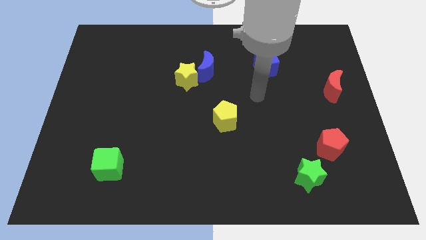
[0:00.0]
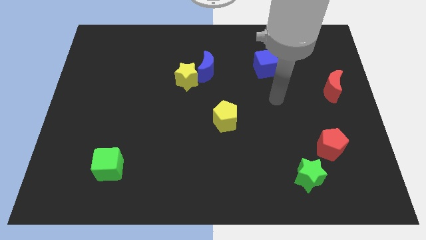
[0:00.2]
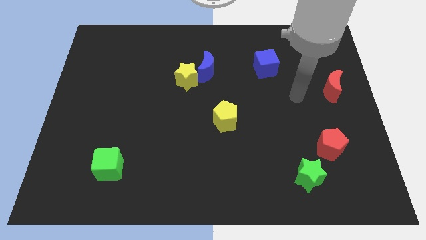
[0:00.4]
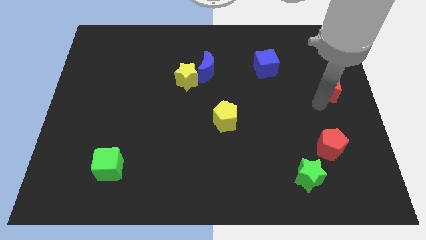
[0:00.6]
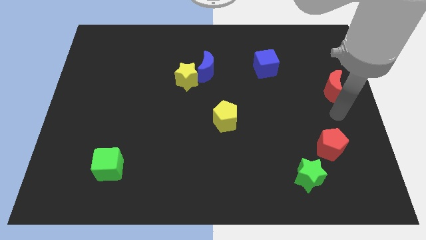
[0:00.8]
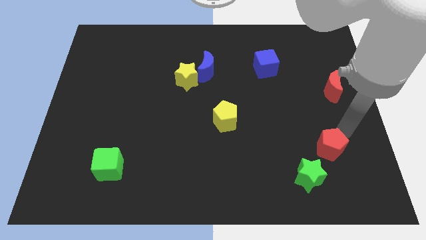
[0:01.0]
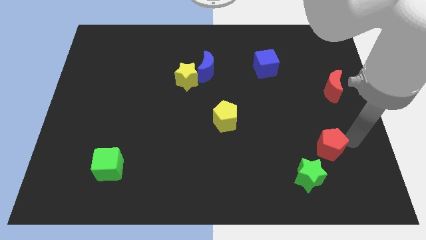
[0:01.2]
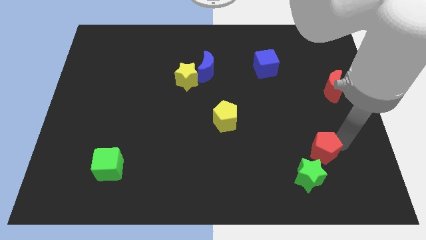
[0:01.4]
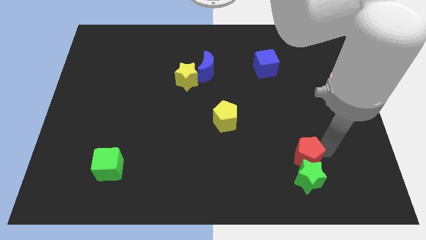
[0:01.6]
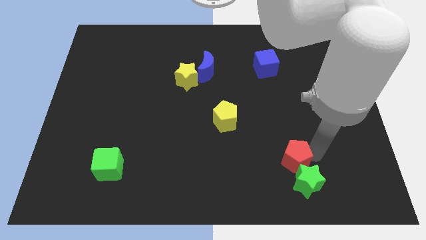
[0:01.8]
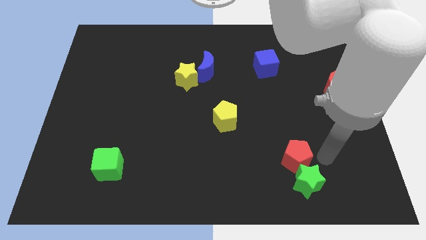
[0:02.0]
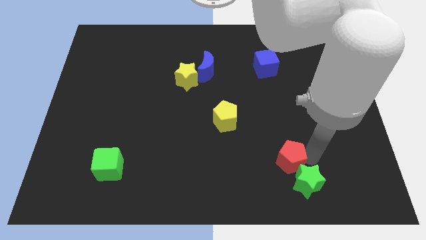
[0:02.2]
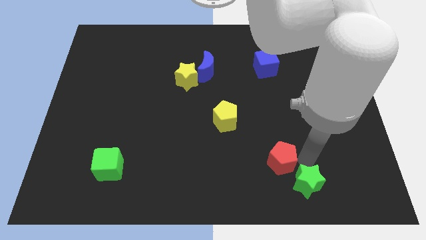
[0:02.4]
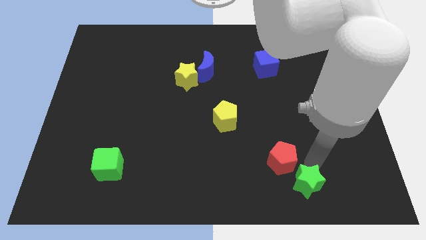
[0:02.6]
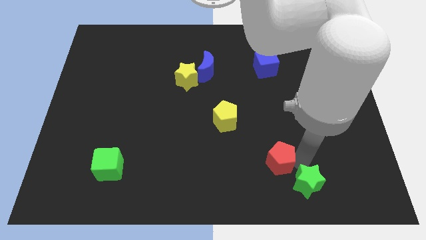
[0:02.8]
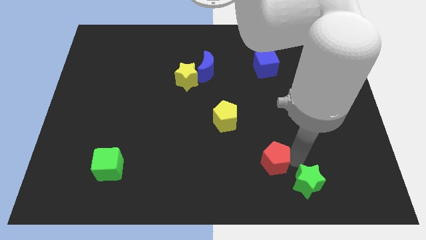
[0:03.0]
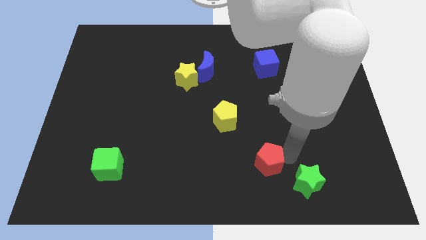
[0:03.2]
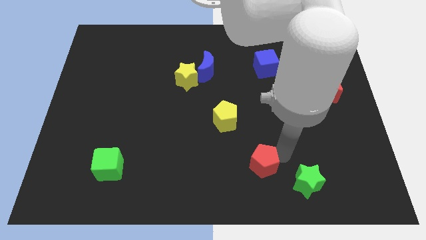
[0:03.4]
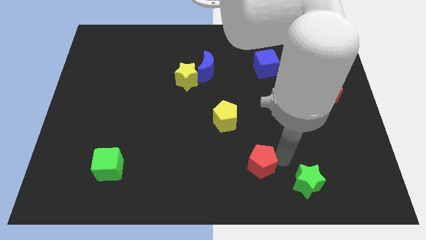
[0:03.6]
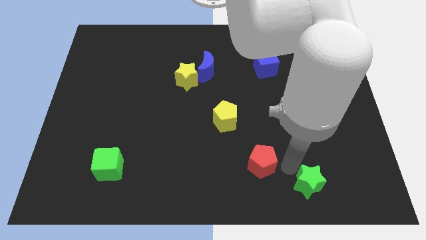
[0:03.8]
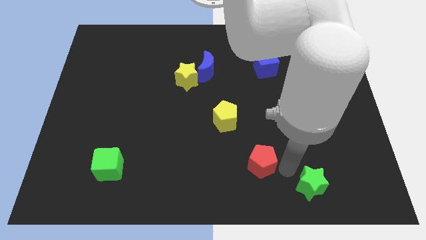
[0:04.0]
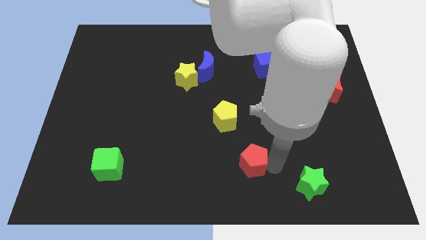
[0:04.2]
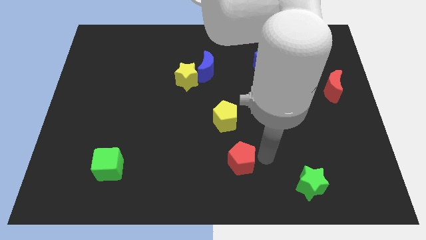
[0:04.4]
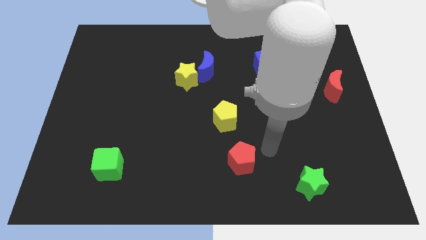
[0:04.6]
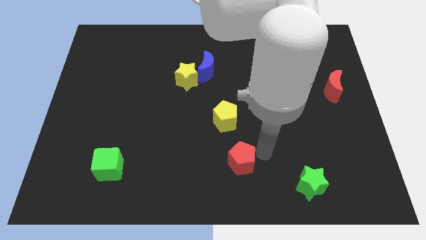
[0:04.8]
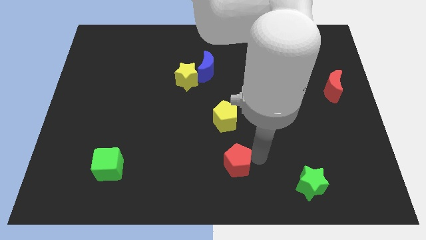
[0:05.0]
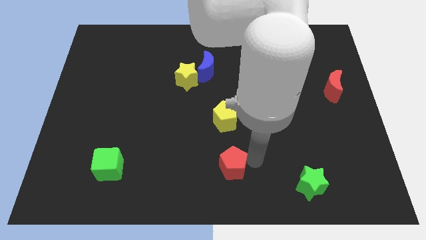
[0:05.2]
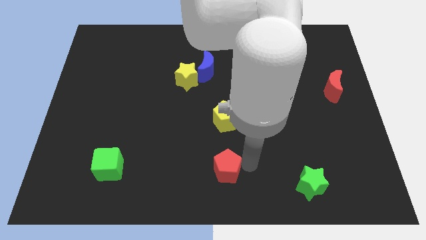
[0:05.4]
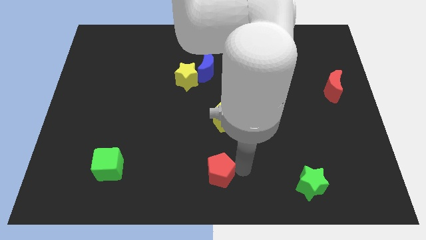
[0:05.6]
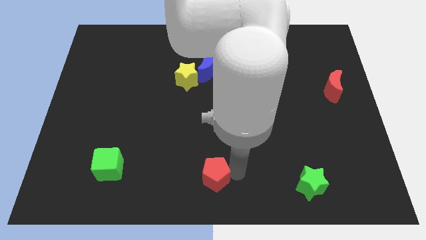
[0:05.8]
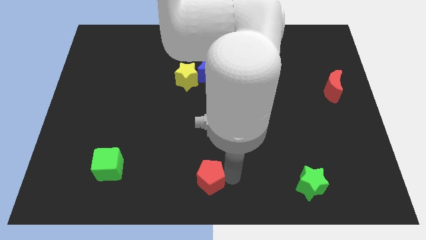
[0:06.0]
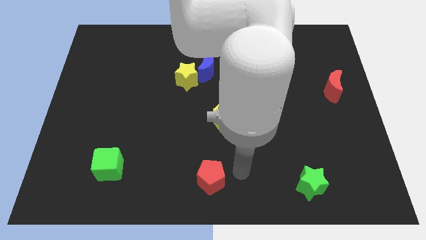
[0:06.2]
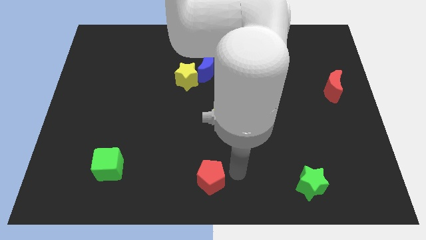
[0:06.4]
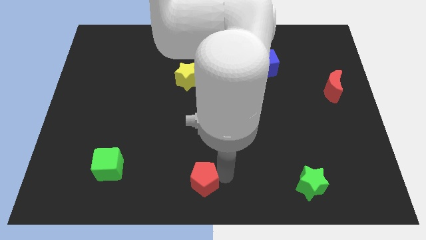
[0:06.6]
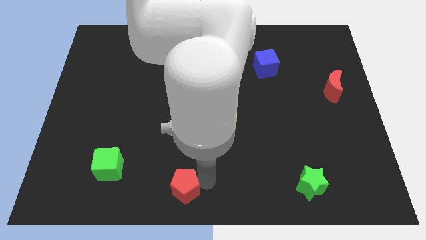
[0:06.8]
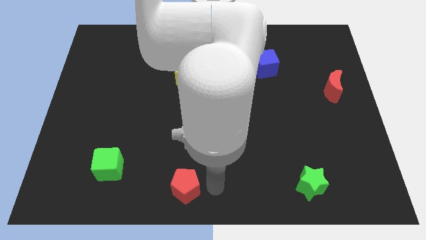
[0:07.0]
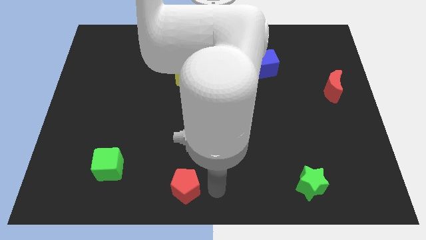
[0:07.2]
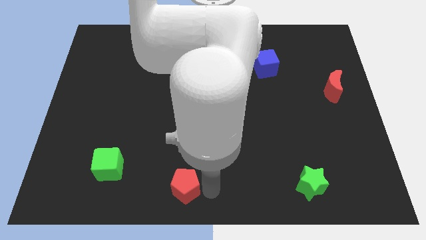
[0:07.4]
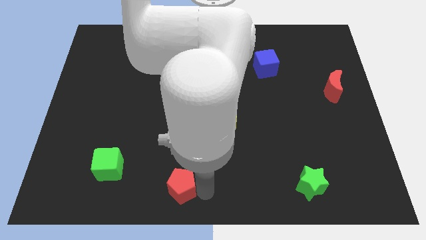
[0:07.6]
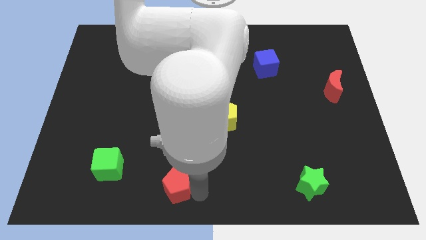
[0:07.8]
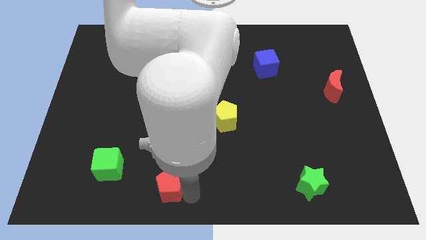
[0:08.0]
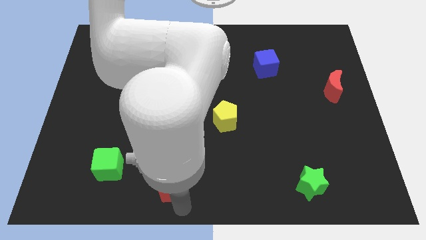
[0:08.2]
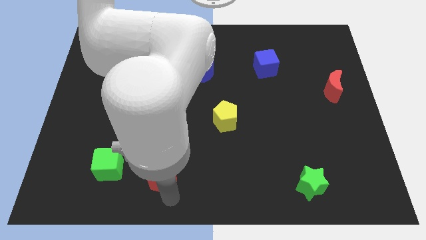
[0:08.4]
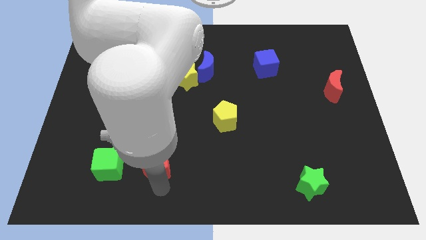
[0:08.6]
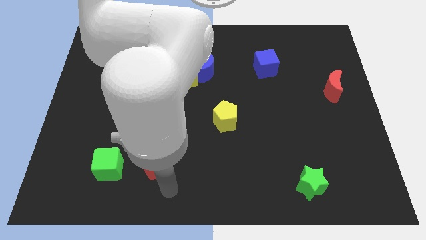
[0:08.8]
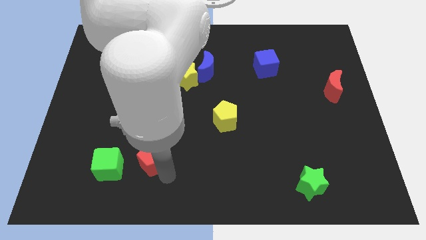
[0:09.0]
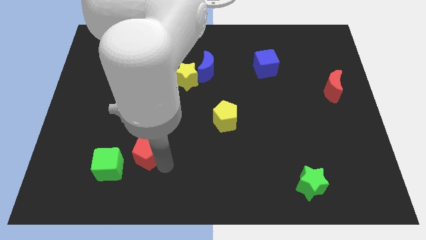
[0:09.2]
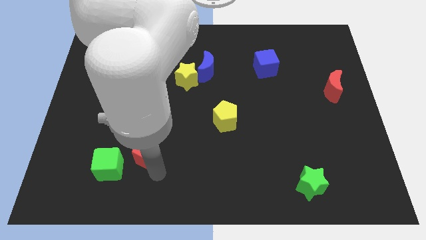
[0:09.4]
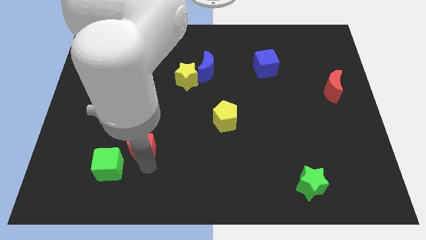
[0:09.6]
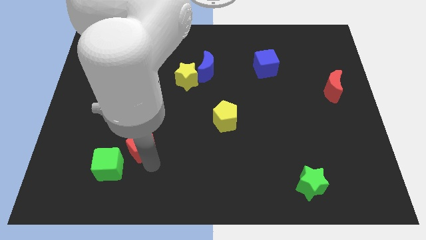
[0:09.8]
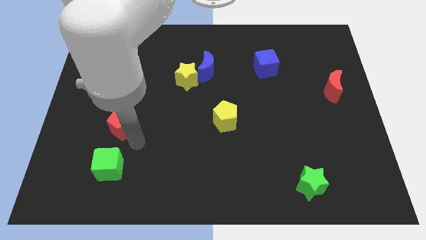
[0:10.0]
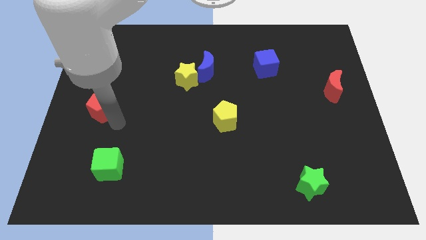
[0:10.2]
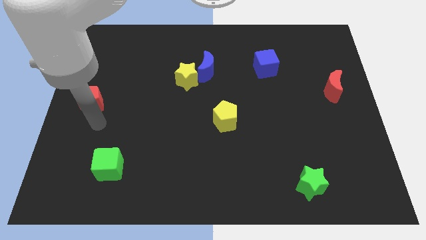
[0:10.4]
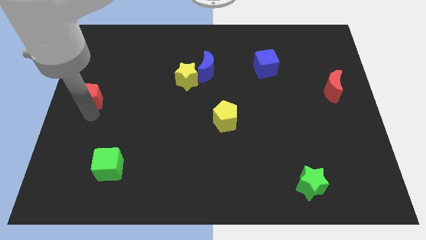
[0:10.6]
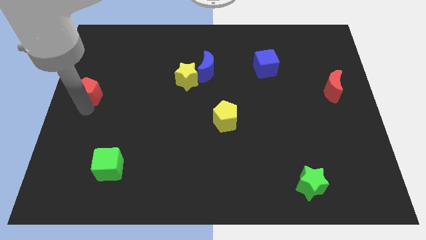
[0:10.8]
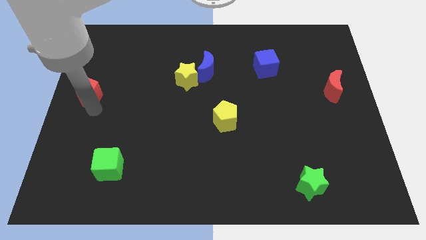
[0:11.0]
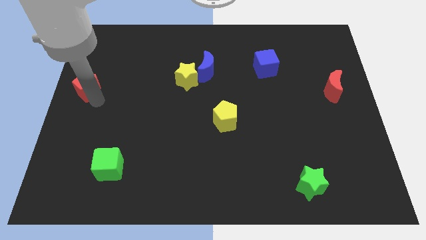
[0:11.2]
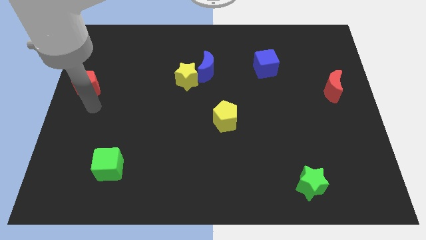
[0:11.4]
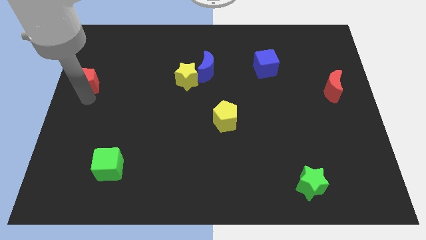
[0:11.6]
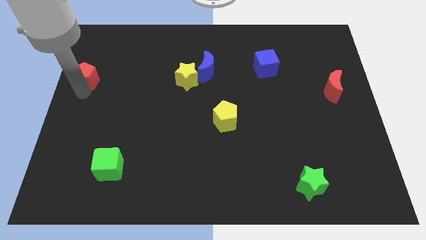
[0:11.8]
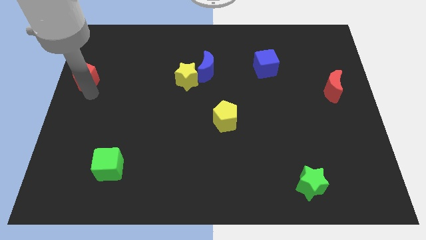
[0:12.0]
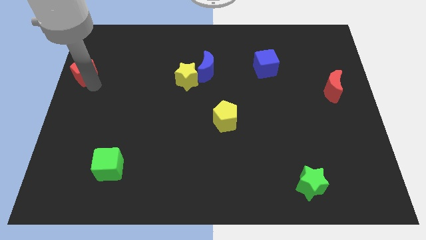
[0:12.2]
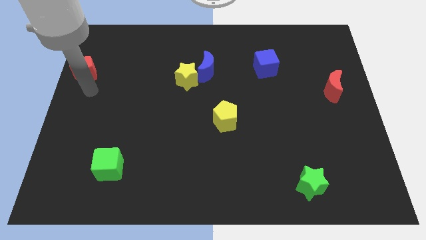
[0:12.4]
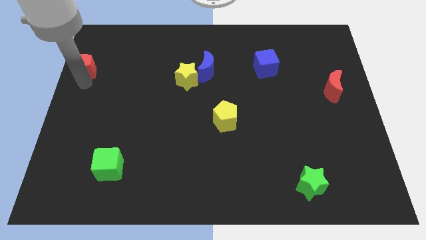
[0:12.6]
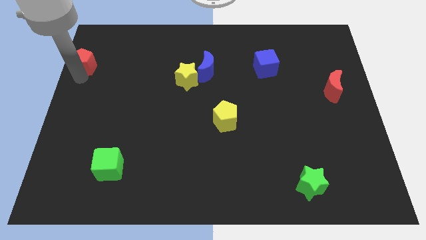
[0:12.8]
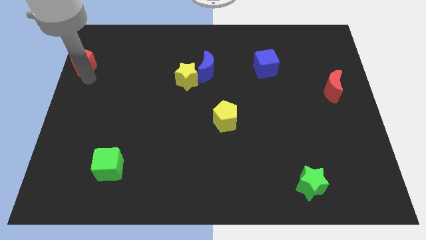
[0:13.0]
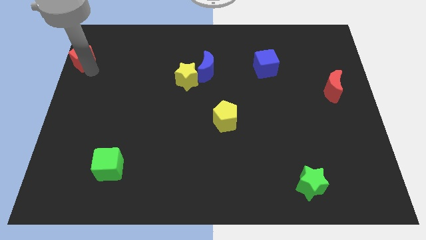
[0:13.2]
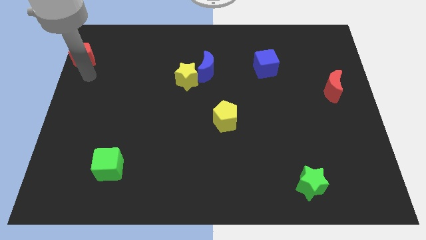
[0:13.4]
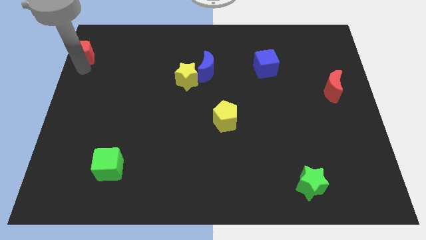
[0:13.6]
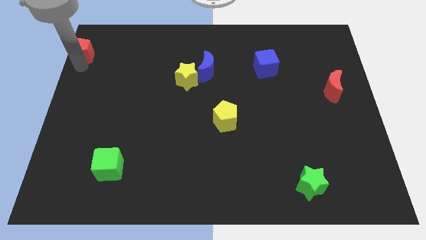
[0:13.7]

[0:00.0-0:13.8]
put the red pentagon to the top left corner
